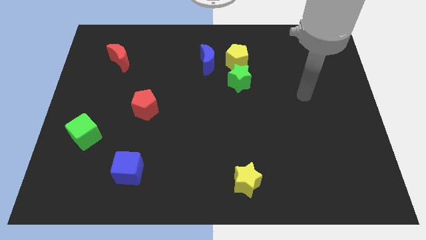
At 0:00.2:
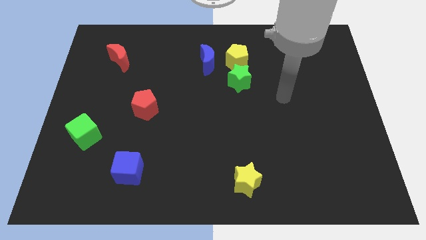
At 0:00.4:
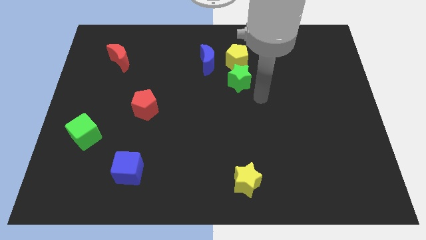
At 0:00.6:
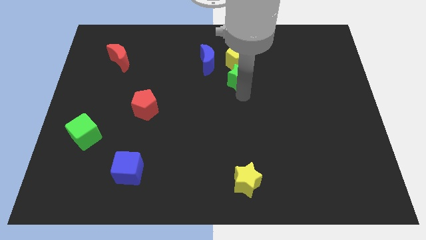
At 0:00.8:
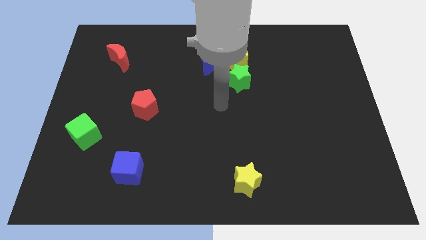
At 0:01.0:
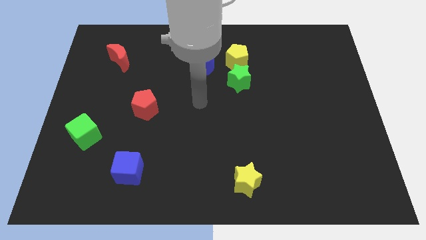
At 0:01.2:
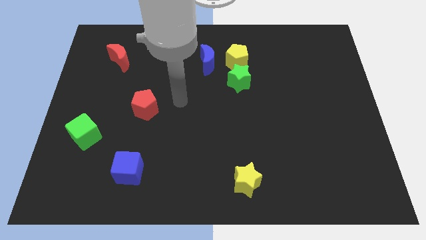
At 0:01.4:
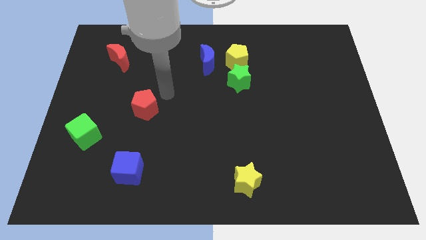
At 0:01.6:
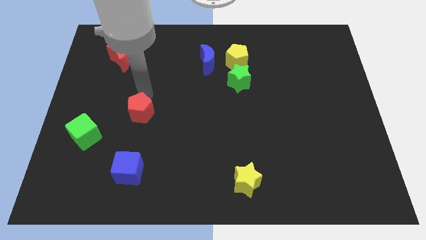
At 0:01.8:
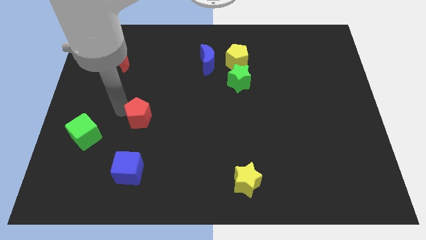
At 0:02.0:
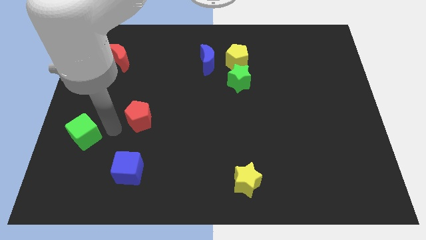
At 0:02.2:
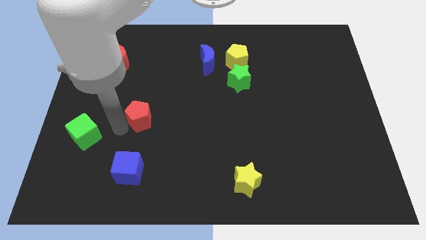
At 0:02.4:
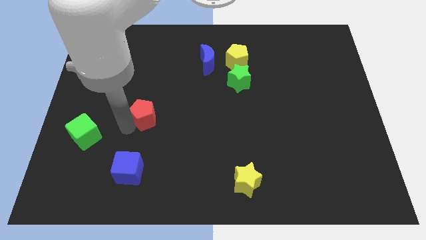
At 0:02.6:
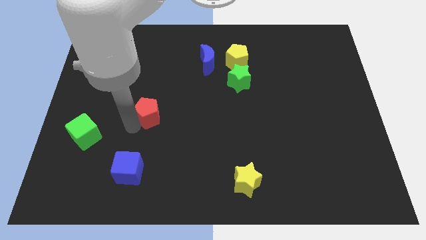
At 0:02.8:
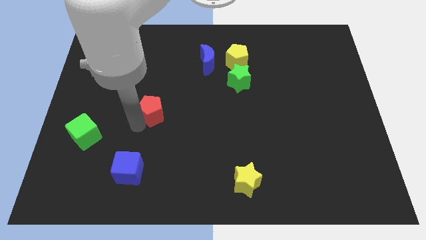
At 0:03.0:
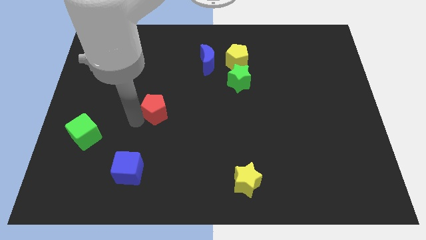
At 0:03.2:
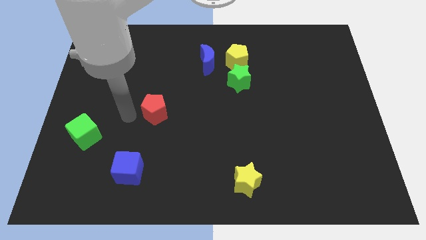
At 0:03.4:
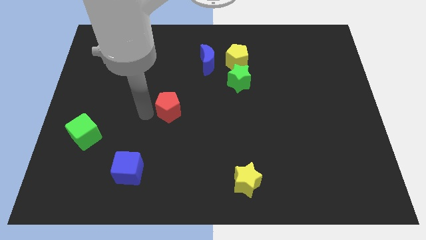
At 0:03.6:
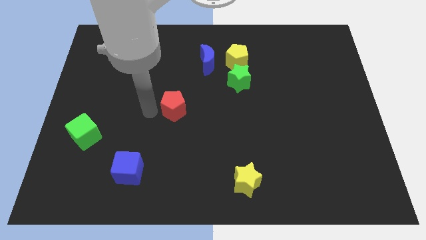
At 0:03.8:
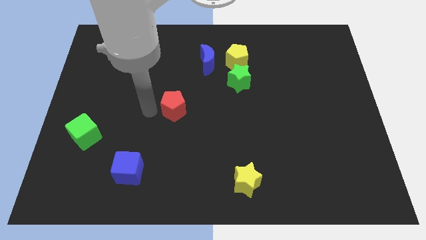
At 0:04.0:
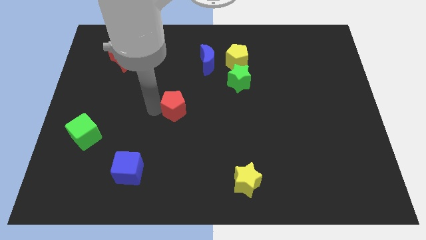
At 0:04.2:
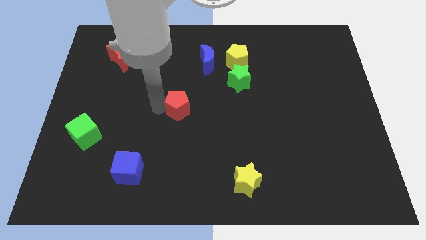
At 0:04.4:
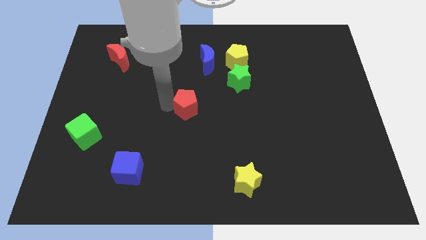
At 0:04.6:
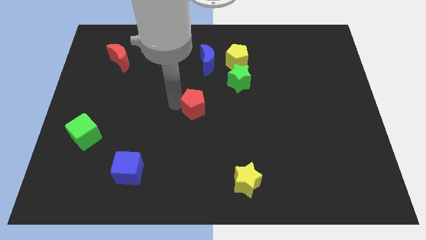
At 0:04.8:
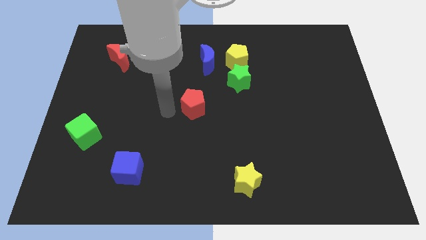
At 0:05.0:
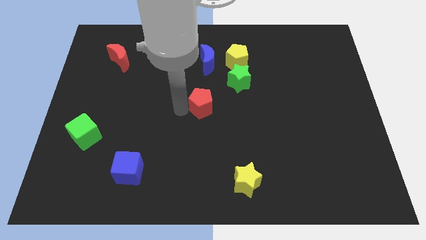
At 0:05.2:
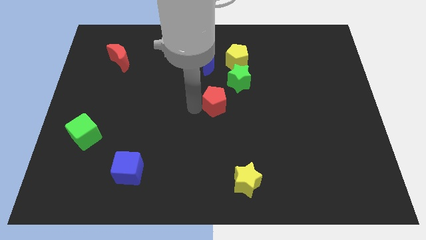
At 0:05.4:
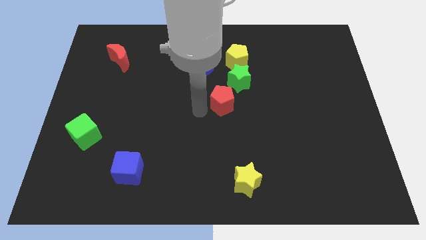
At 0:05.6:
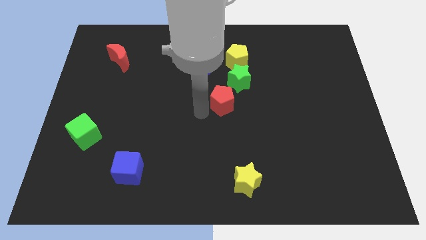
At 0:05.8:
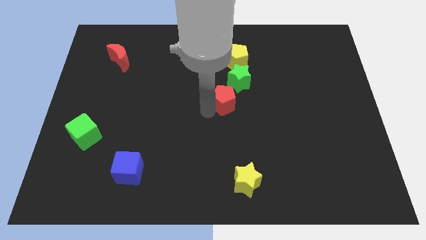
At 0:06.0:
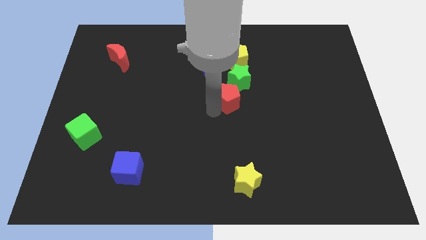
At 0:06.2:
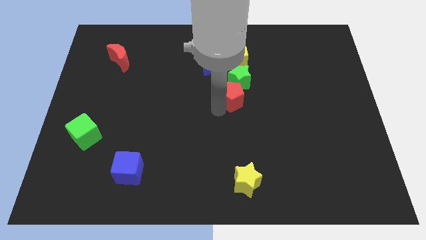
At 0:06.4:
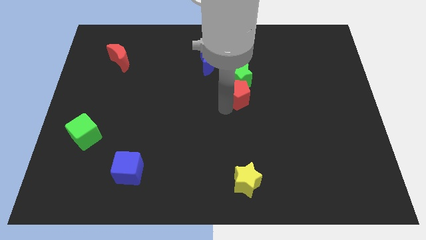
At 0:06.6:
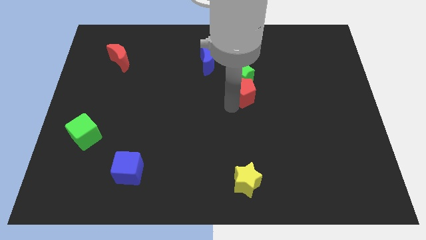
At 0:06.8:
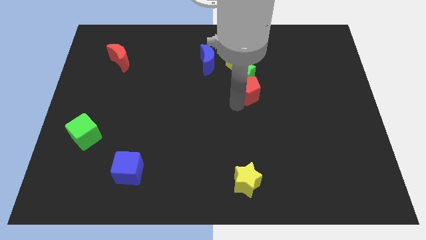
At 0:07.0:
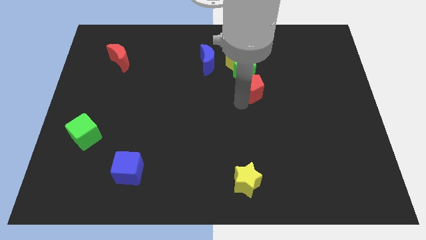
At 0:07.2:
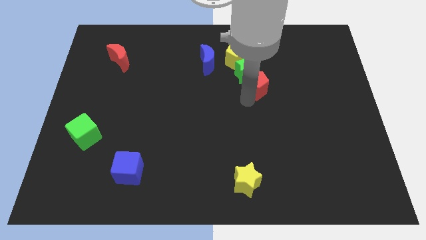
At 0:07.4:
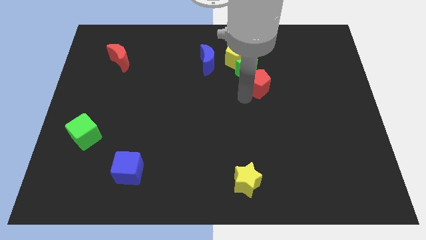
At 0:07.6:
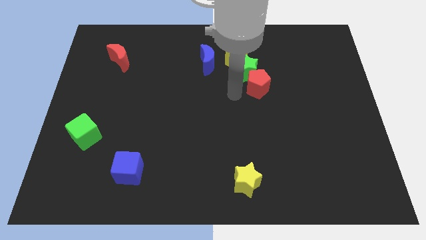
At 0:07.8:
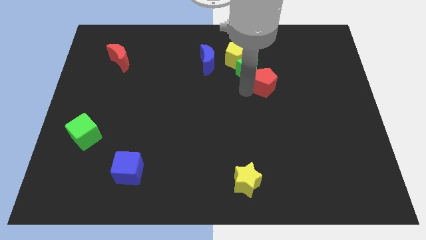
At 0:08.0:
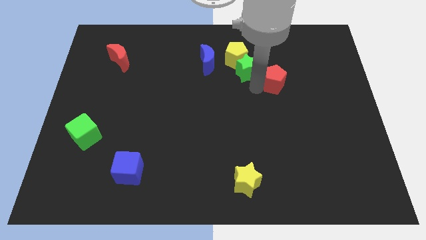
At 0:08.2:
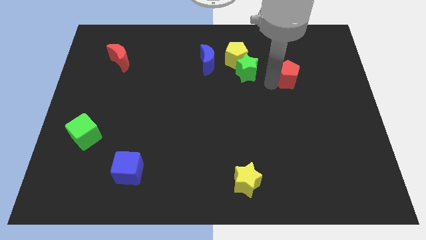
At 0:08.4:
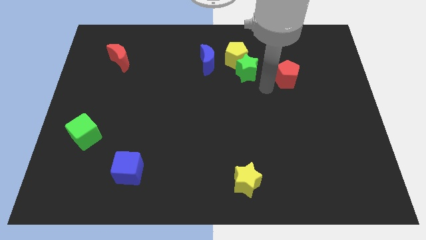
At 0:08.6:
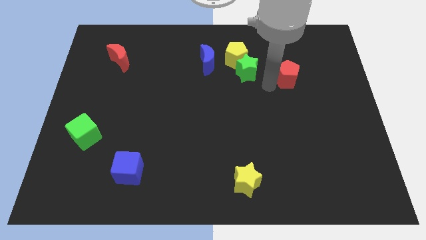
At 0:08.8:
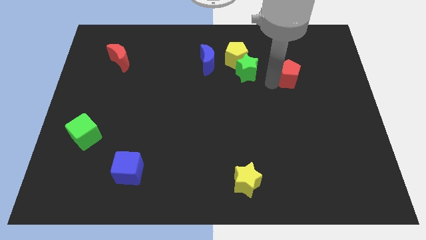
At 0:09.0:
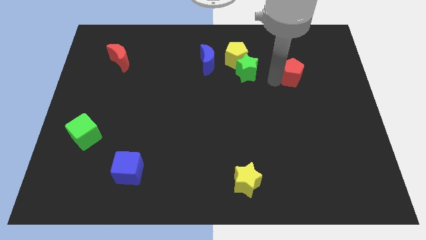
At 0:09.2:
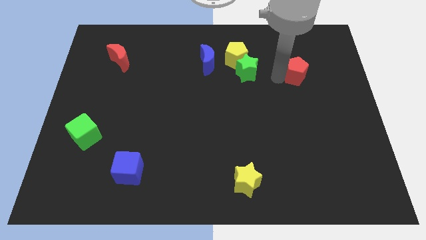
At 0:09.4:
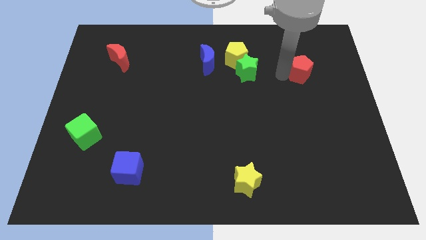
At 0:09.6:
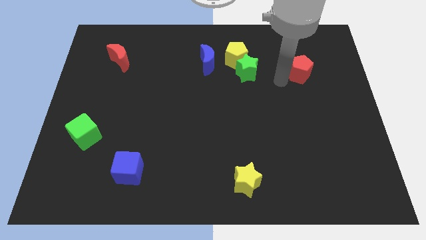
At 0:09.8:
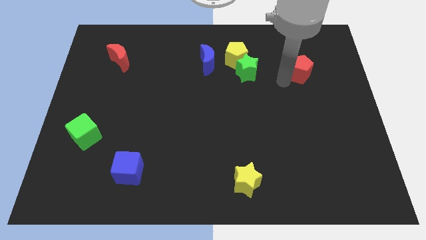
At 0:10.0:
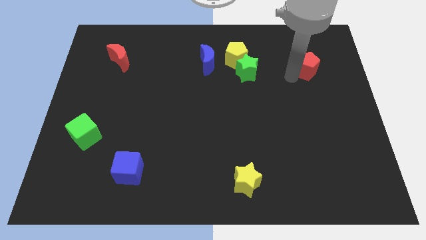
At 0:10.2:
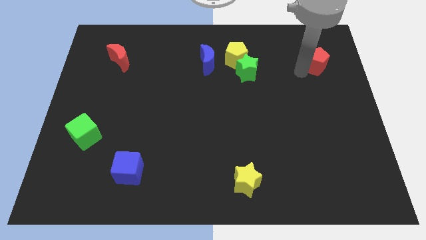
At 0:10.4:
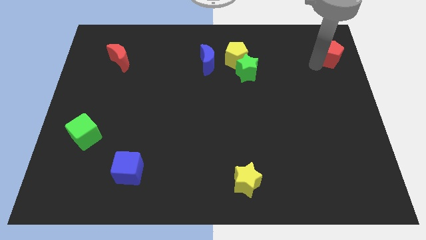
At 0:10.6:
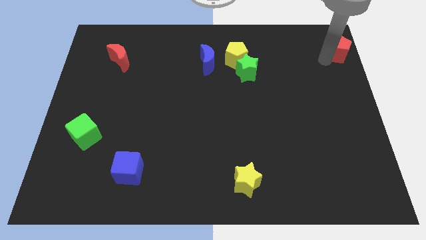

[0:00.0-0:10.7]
push the red pentagon to the upper right corner

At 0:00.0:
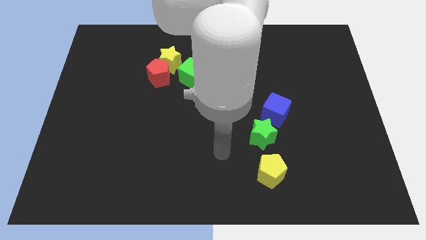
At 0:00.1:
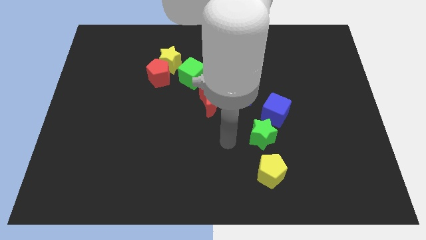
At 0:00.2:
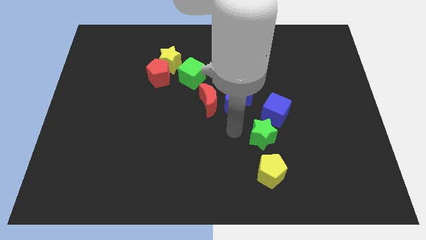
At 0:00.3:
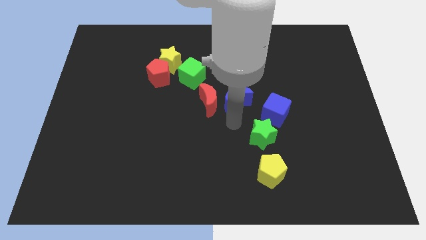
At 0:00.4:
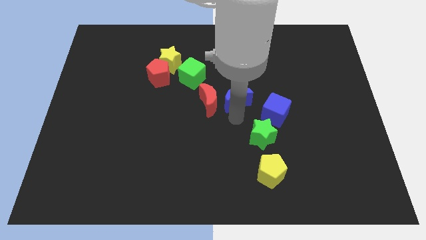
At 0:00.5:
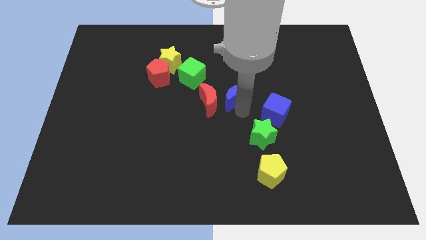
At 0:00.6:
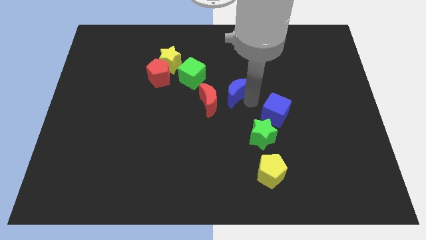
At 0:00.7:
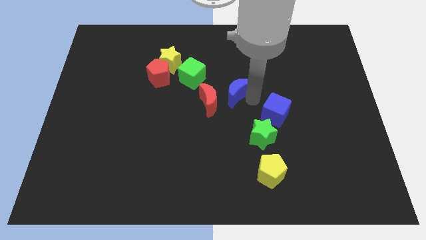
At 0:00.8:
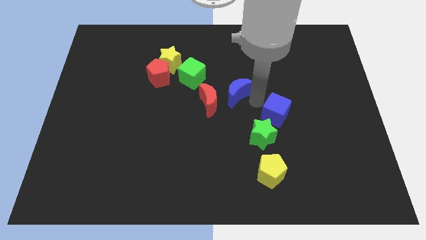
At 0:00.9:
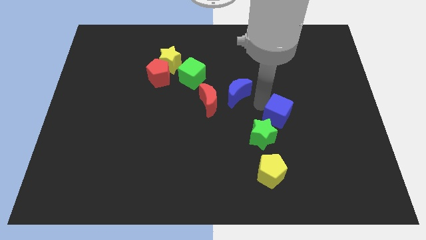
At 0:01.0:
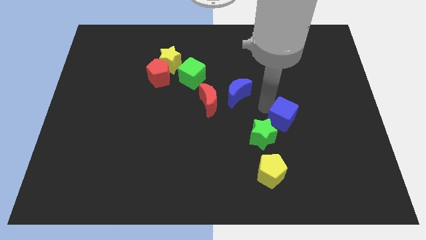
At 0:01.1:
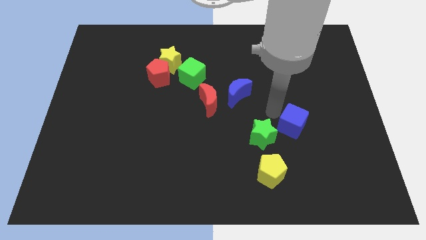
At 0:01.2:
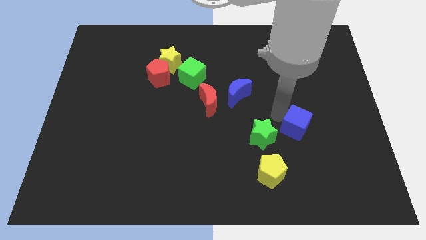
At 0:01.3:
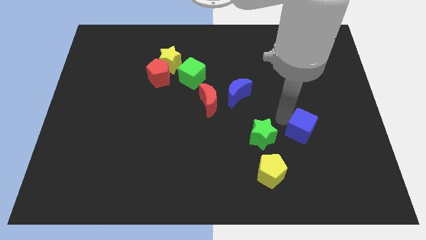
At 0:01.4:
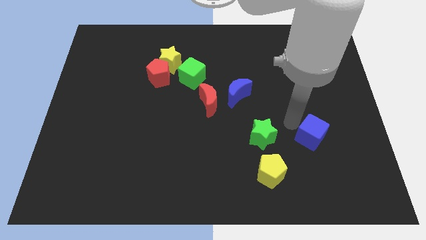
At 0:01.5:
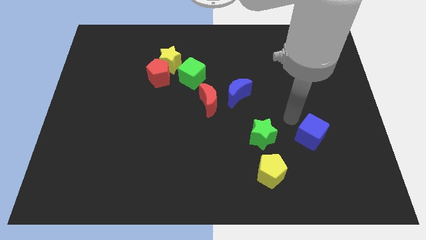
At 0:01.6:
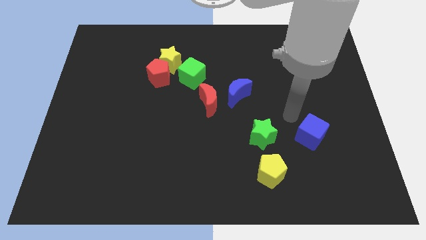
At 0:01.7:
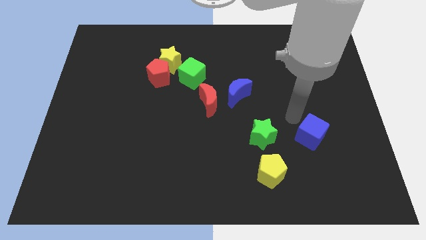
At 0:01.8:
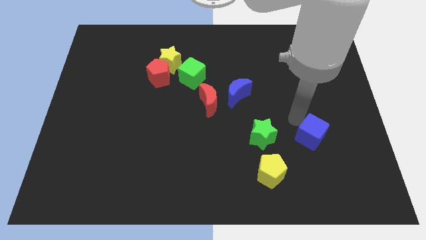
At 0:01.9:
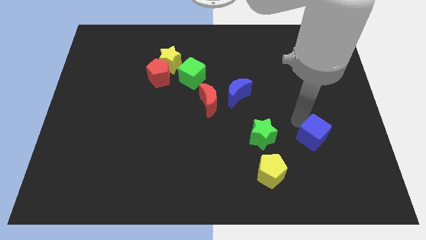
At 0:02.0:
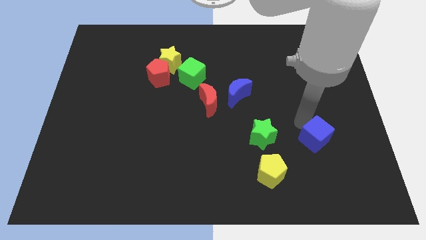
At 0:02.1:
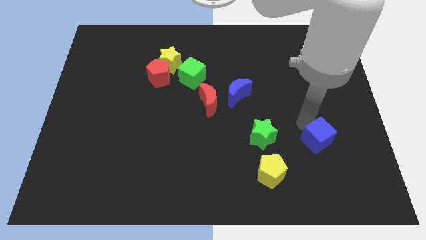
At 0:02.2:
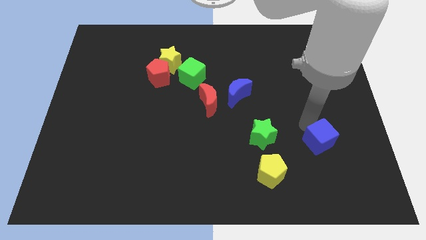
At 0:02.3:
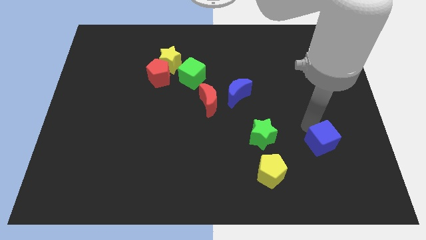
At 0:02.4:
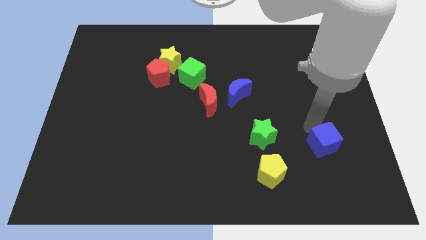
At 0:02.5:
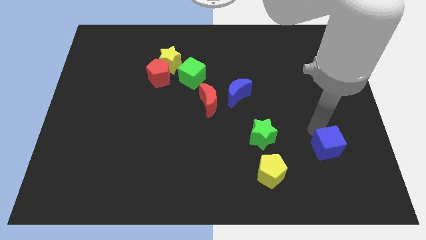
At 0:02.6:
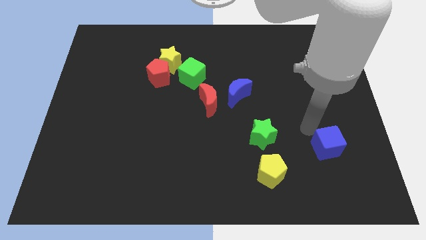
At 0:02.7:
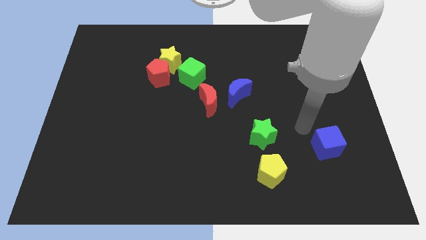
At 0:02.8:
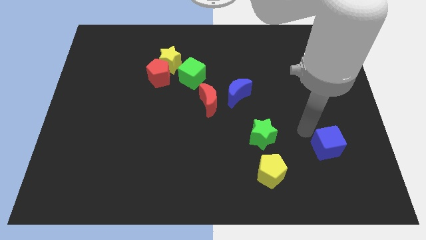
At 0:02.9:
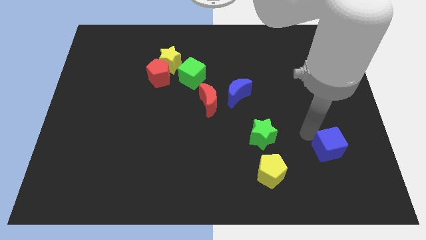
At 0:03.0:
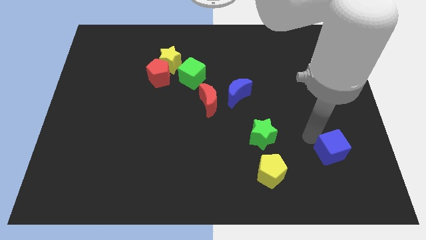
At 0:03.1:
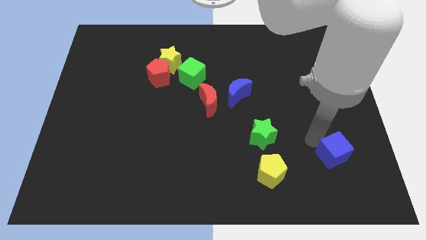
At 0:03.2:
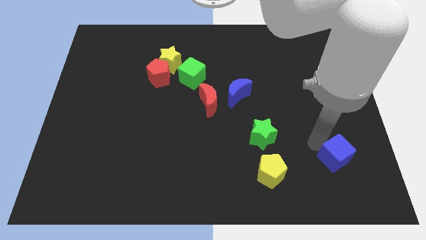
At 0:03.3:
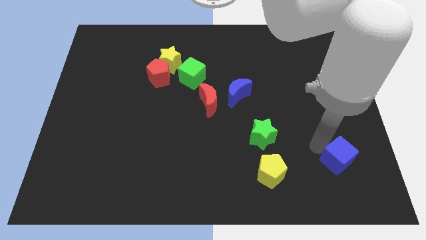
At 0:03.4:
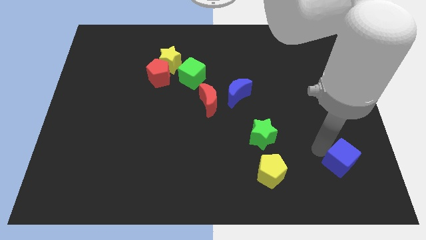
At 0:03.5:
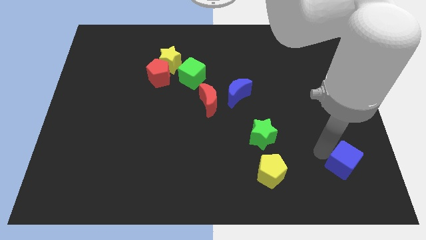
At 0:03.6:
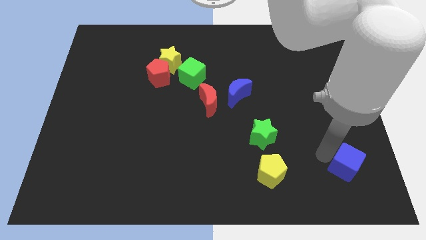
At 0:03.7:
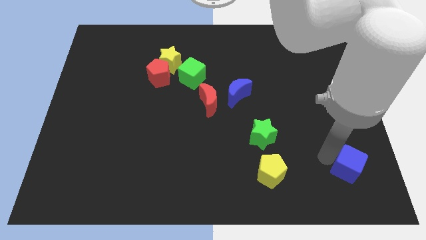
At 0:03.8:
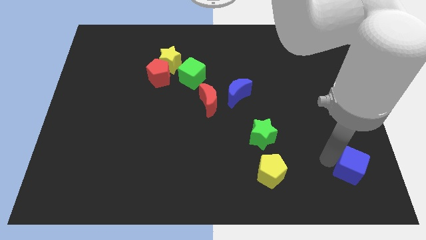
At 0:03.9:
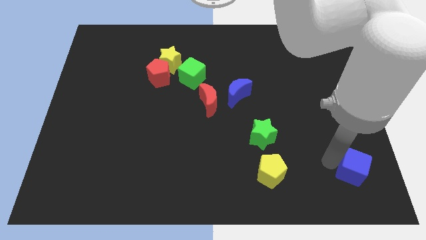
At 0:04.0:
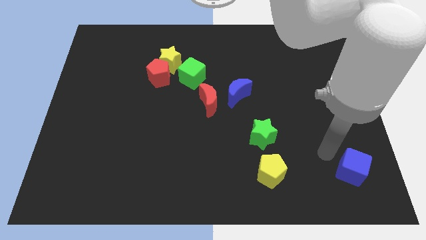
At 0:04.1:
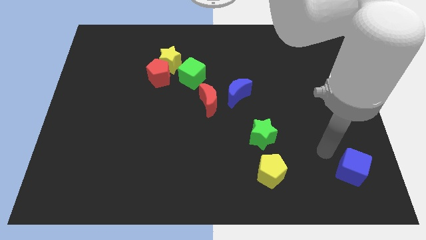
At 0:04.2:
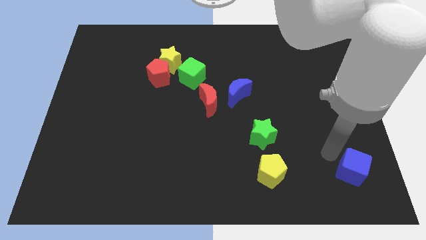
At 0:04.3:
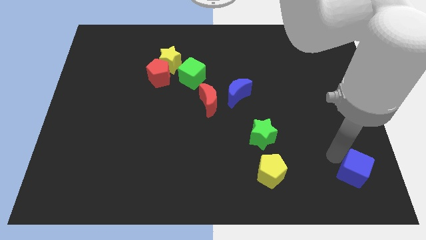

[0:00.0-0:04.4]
slide the blue cube to the lower right corner
